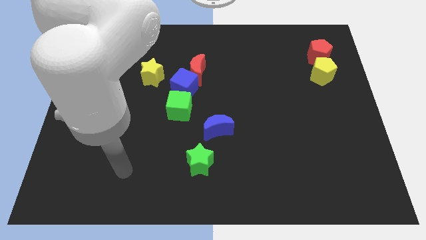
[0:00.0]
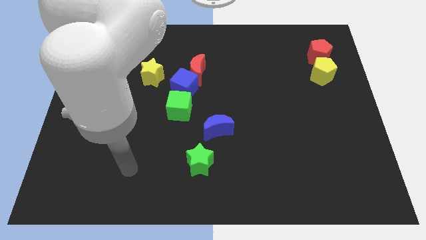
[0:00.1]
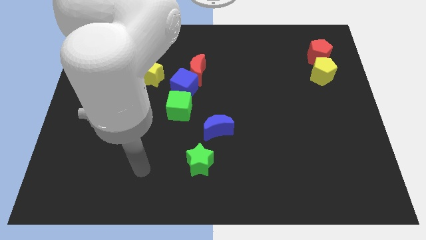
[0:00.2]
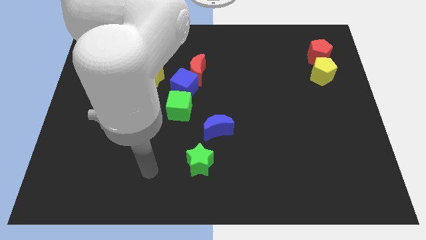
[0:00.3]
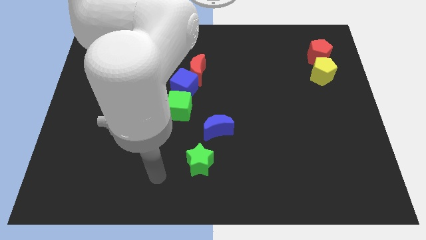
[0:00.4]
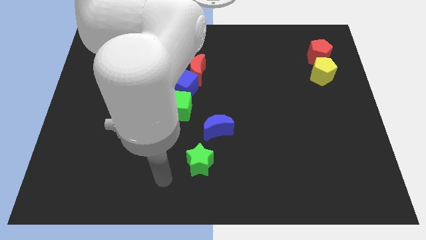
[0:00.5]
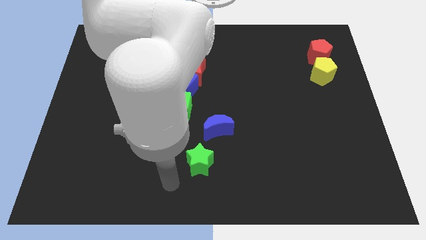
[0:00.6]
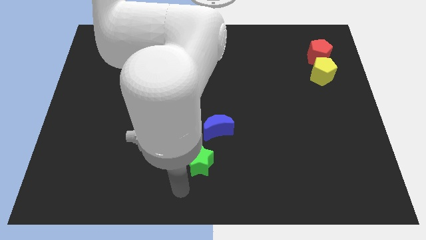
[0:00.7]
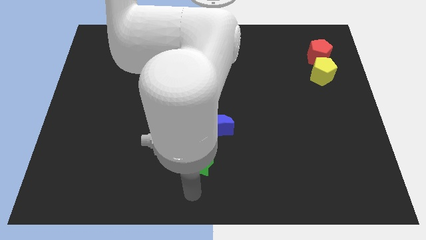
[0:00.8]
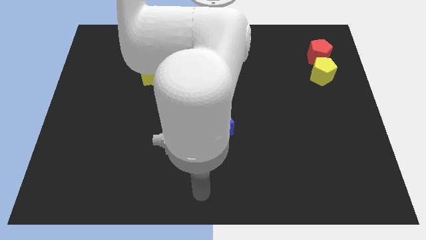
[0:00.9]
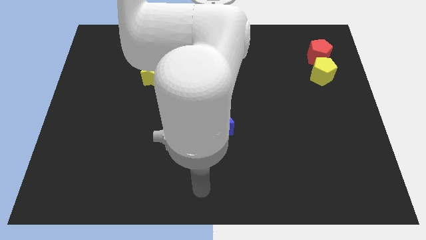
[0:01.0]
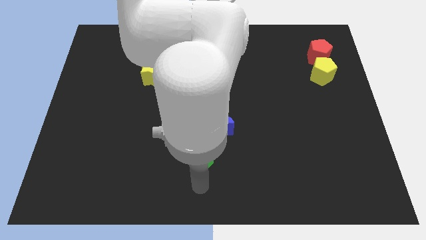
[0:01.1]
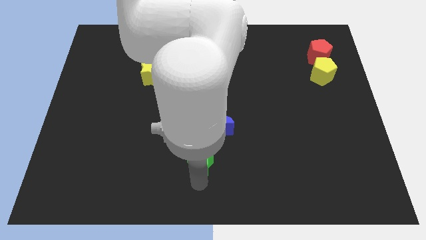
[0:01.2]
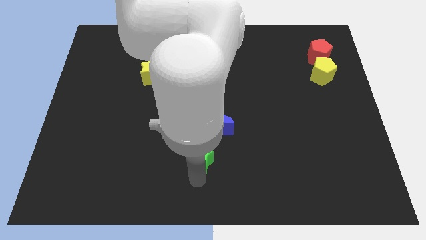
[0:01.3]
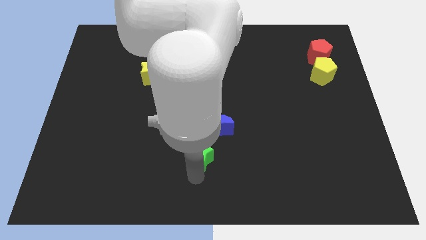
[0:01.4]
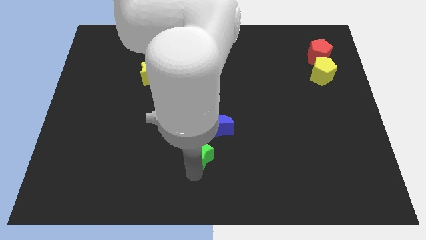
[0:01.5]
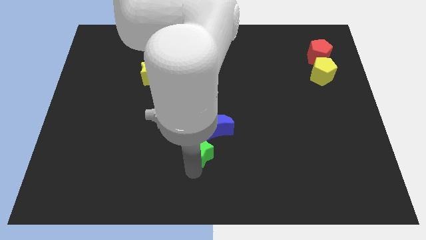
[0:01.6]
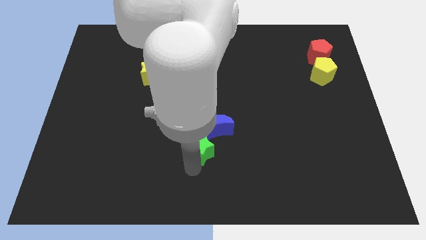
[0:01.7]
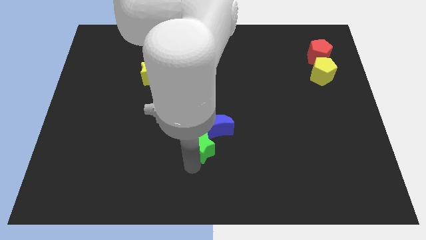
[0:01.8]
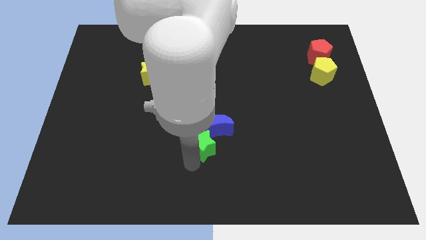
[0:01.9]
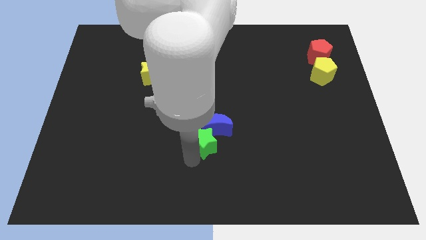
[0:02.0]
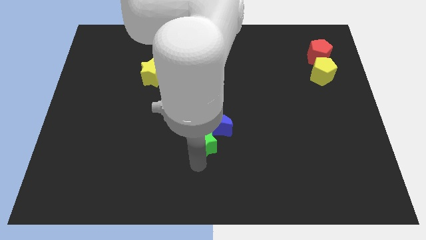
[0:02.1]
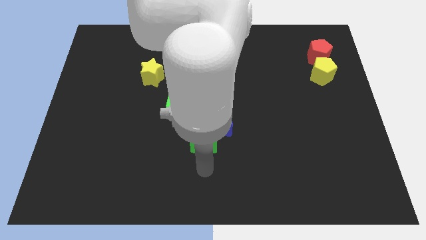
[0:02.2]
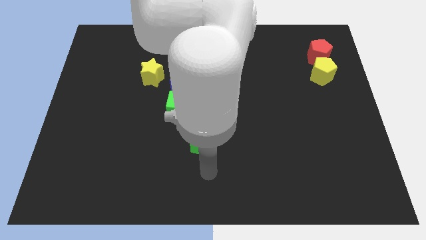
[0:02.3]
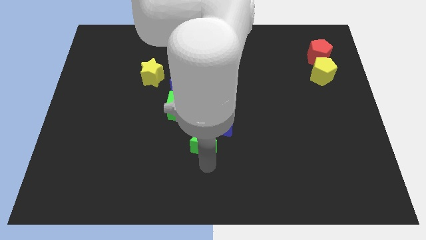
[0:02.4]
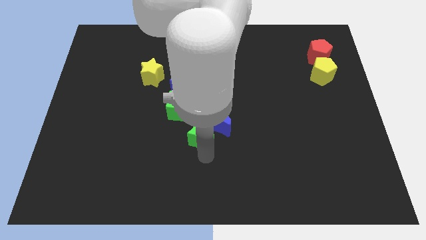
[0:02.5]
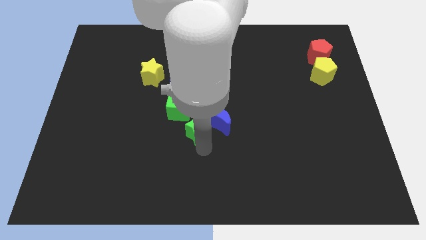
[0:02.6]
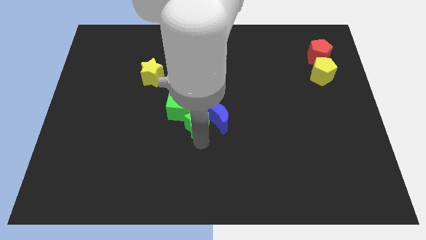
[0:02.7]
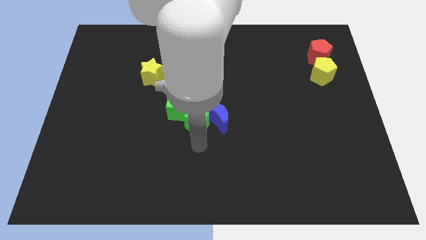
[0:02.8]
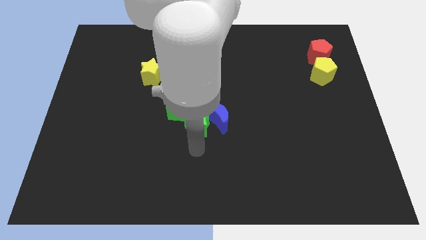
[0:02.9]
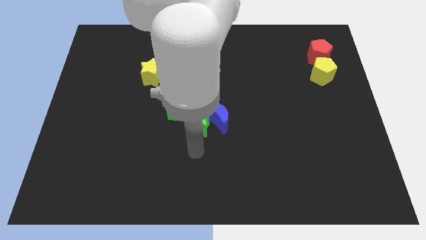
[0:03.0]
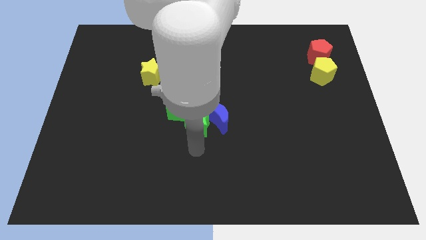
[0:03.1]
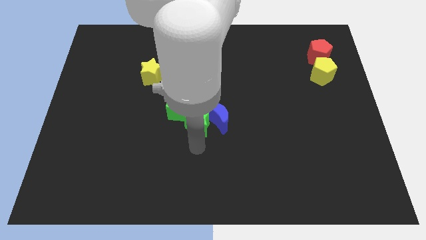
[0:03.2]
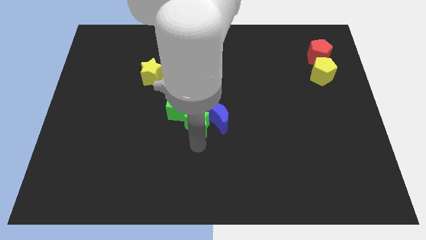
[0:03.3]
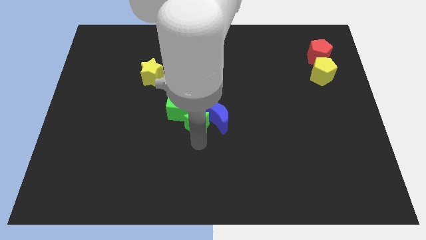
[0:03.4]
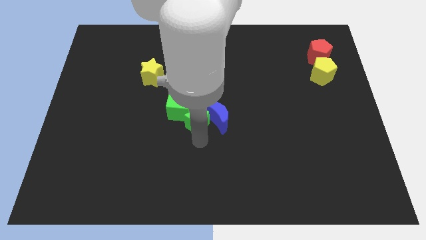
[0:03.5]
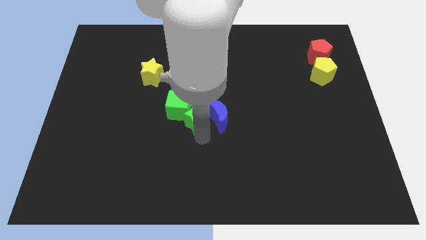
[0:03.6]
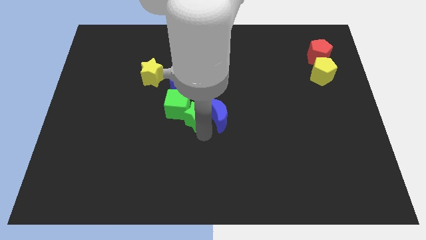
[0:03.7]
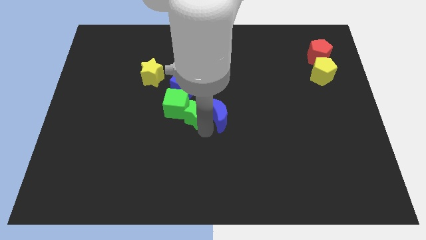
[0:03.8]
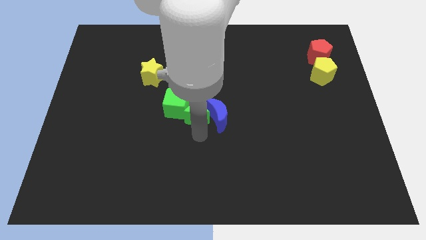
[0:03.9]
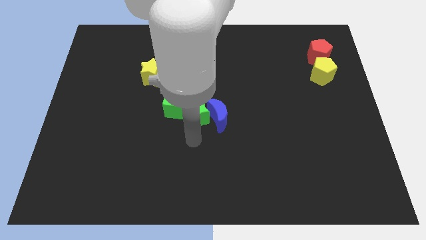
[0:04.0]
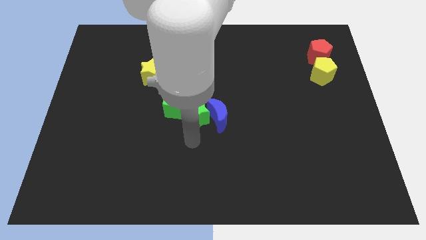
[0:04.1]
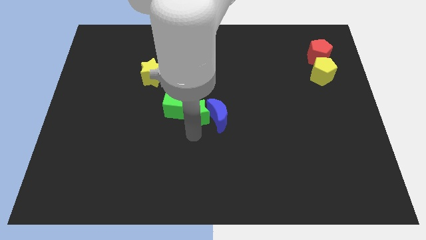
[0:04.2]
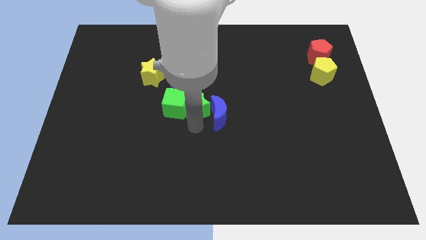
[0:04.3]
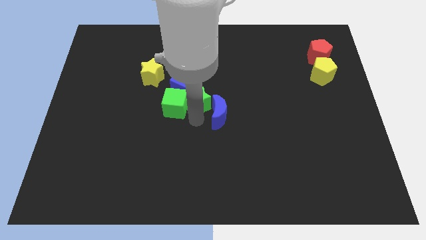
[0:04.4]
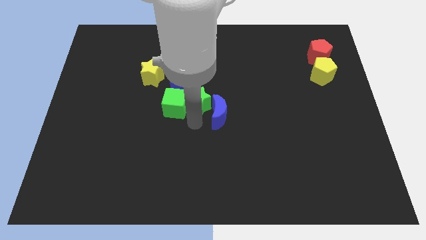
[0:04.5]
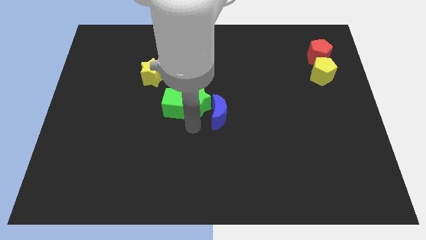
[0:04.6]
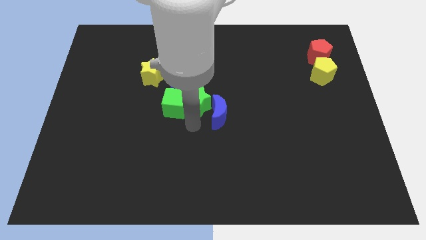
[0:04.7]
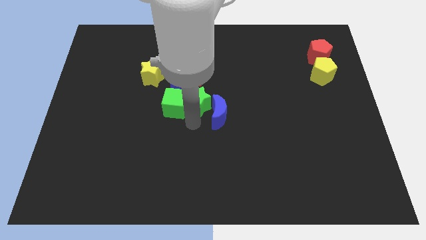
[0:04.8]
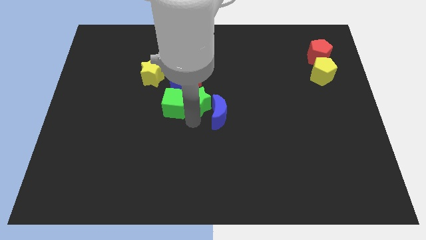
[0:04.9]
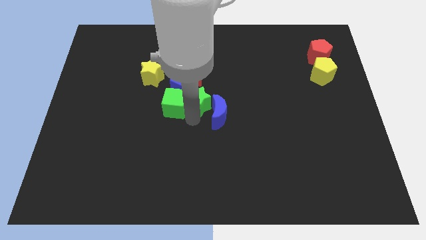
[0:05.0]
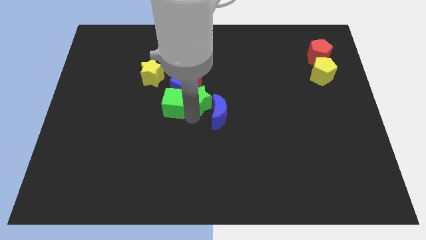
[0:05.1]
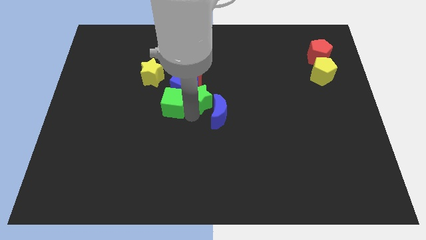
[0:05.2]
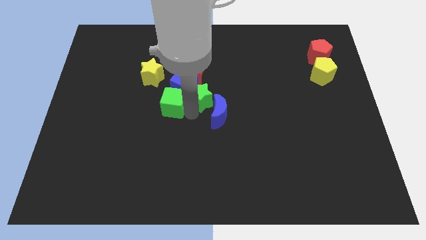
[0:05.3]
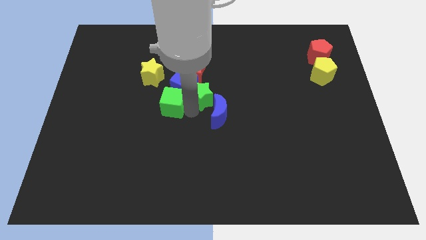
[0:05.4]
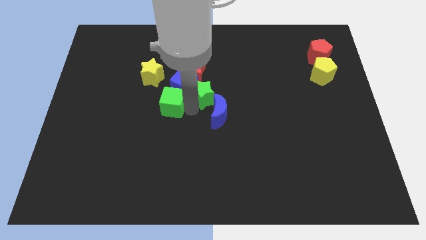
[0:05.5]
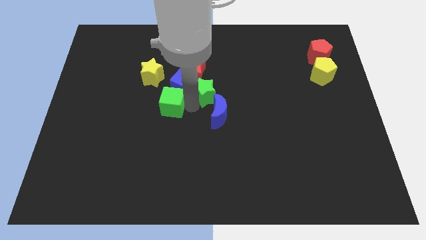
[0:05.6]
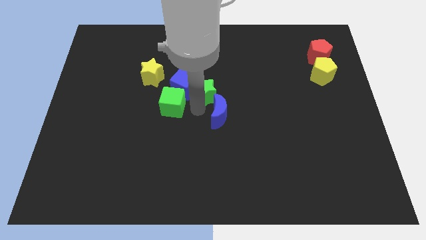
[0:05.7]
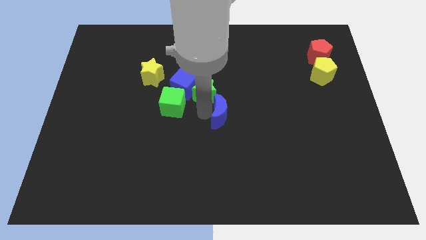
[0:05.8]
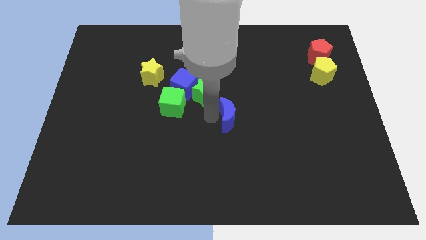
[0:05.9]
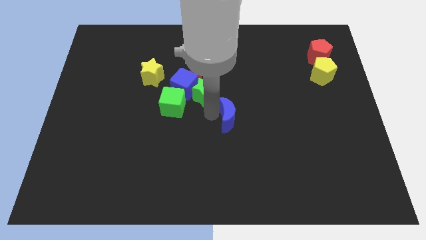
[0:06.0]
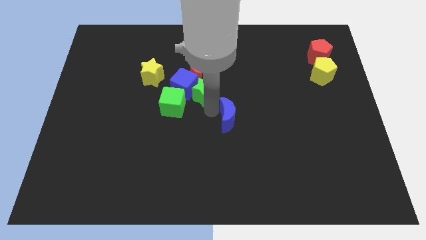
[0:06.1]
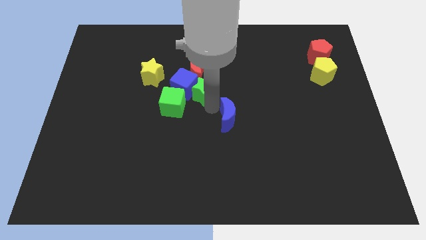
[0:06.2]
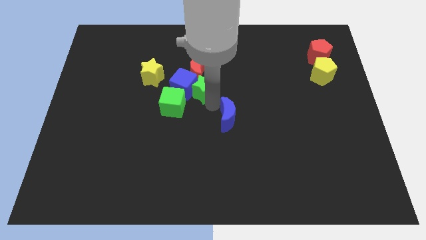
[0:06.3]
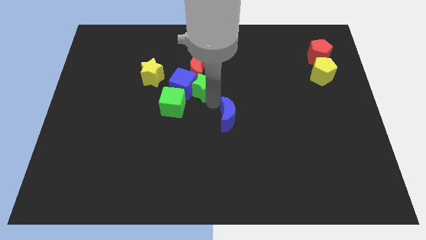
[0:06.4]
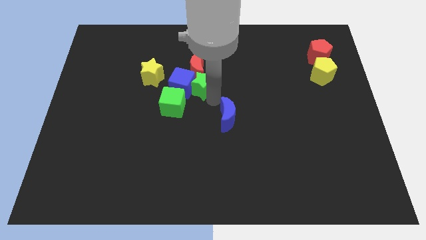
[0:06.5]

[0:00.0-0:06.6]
push the green star to the red moon
